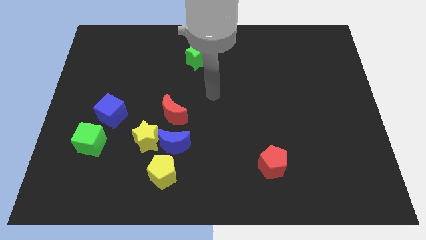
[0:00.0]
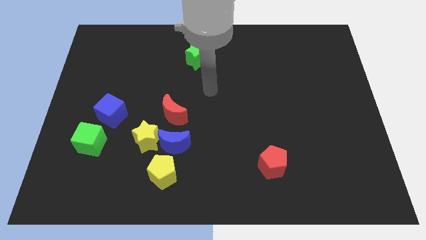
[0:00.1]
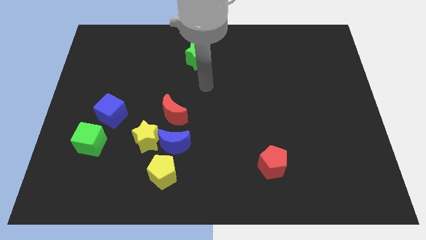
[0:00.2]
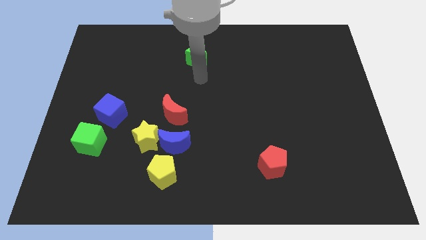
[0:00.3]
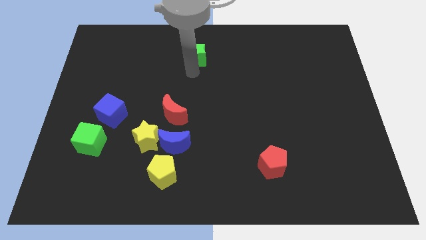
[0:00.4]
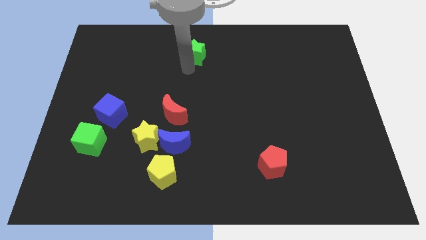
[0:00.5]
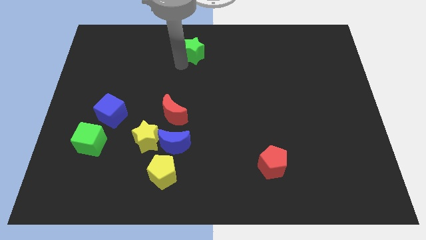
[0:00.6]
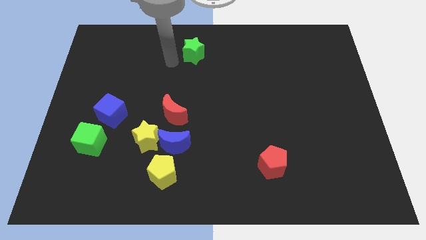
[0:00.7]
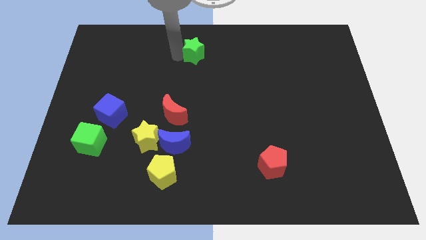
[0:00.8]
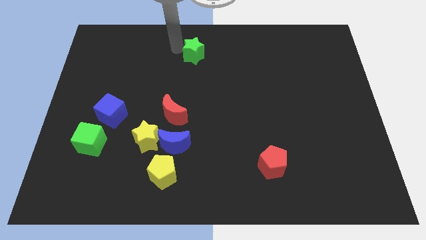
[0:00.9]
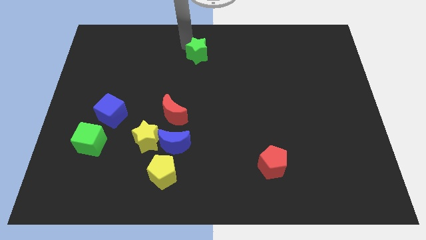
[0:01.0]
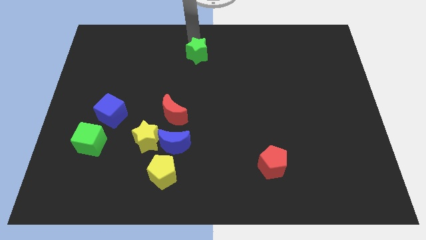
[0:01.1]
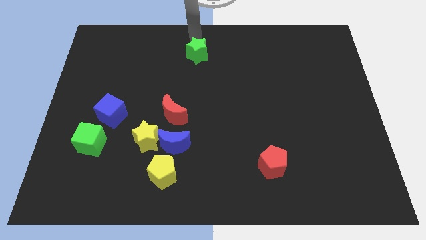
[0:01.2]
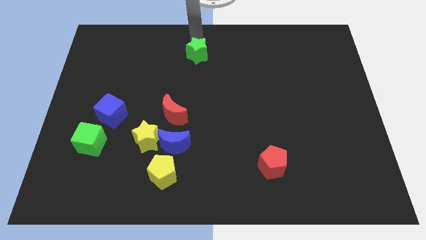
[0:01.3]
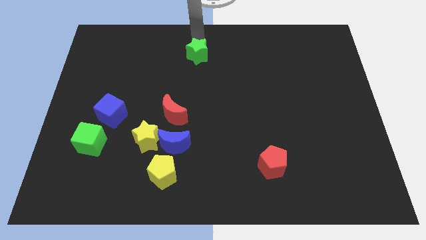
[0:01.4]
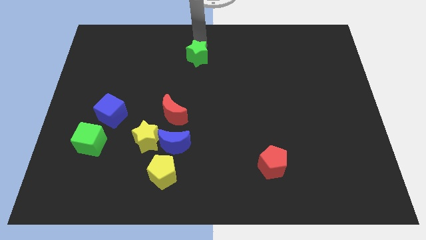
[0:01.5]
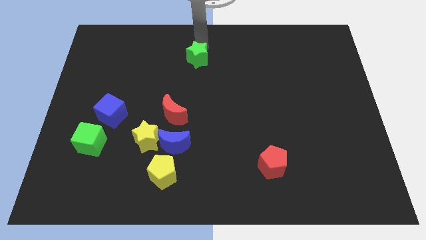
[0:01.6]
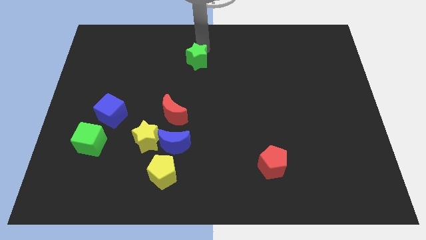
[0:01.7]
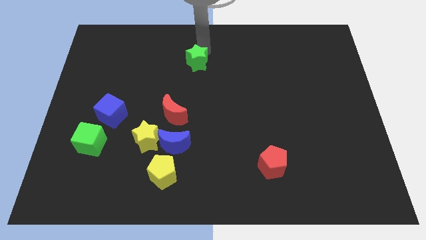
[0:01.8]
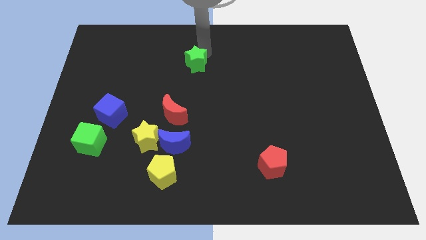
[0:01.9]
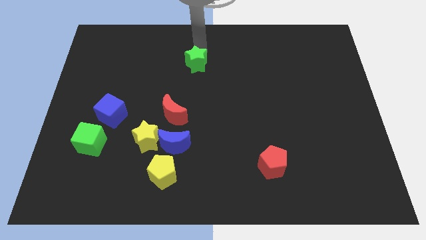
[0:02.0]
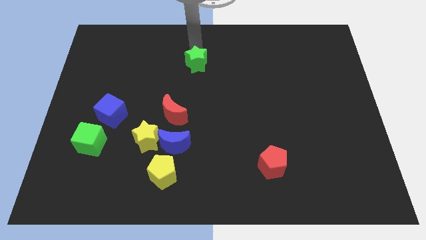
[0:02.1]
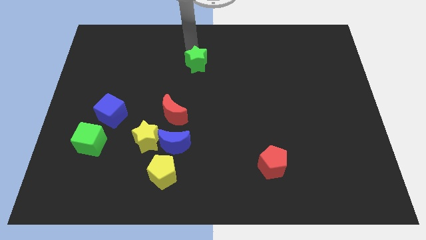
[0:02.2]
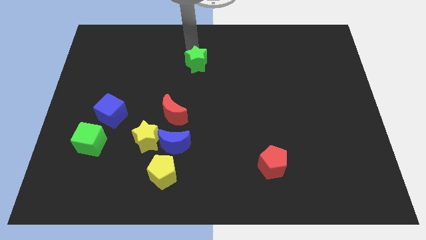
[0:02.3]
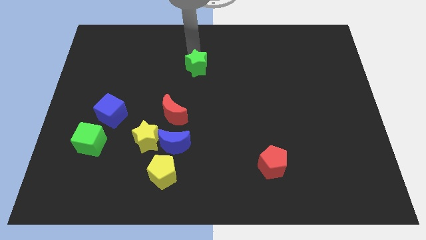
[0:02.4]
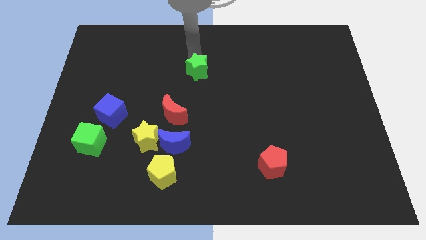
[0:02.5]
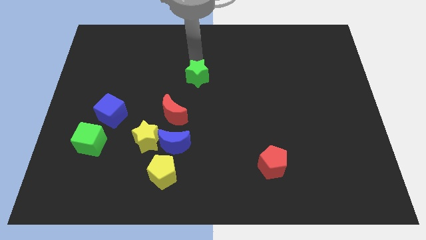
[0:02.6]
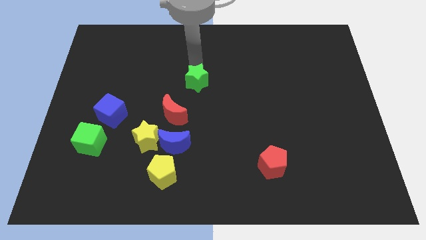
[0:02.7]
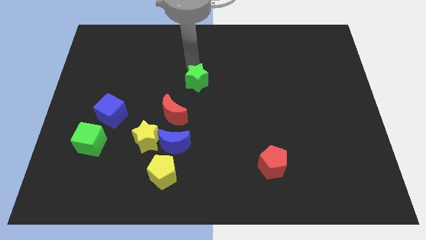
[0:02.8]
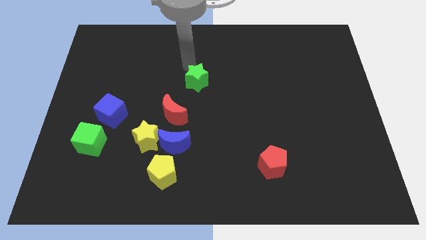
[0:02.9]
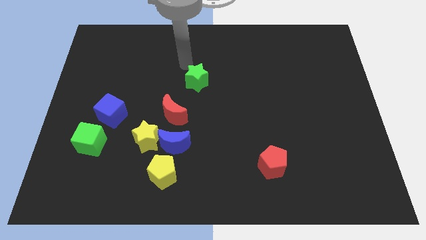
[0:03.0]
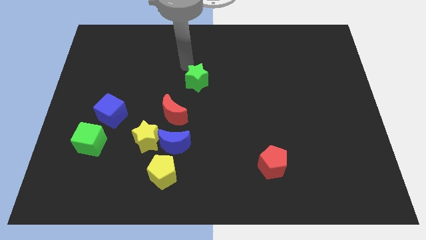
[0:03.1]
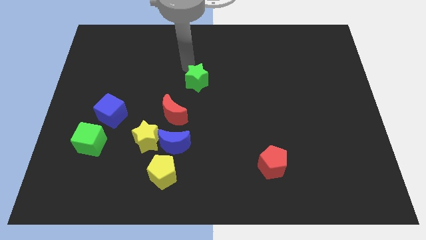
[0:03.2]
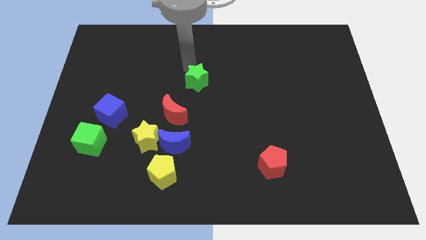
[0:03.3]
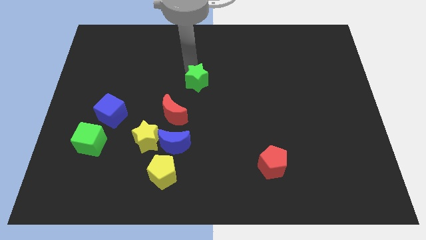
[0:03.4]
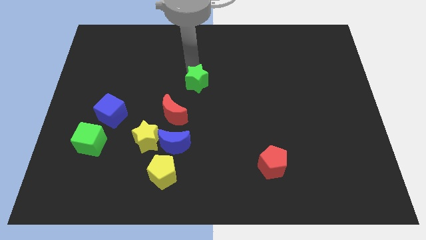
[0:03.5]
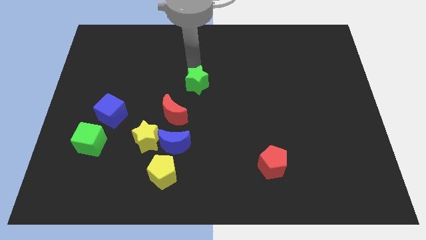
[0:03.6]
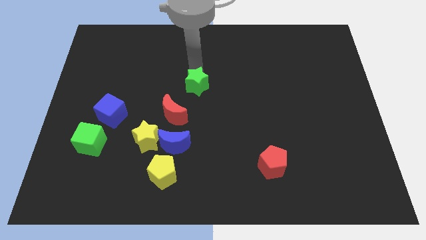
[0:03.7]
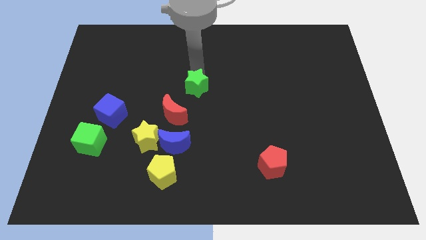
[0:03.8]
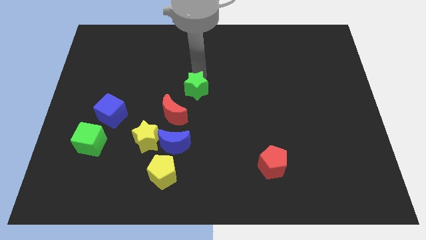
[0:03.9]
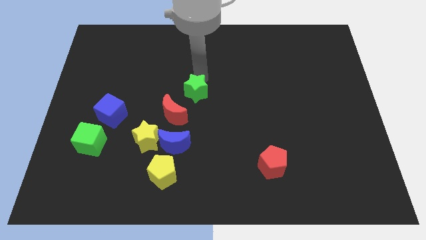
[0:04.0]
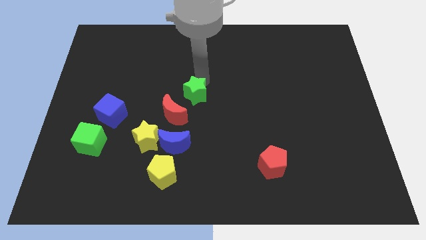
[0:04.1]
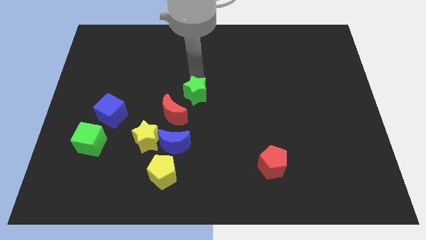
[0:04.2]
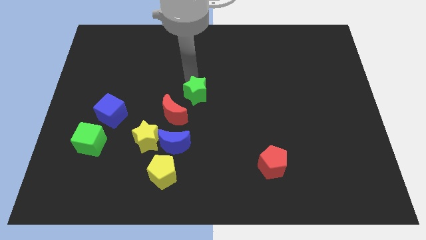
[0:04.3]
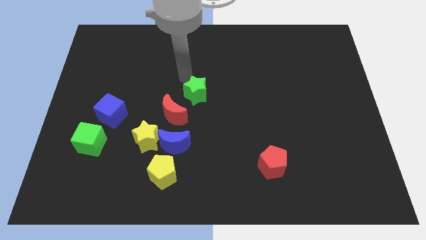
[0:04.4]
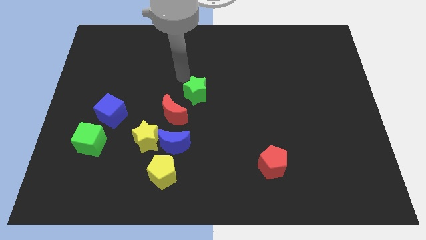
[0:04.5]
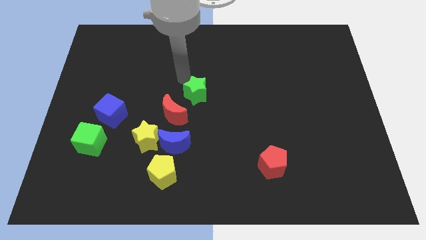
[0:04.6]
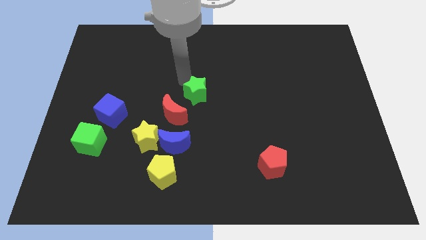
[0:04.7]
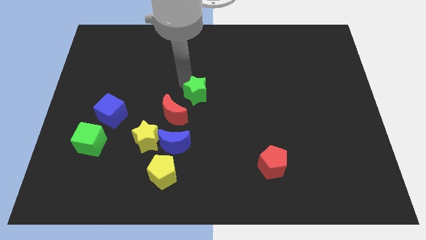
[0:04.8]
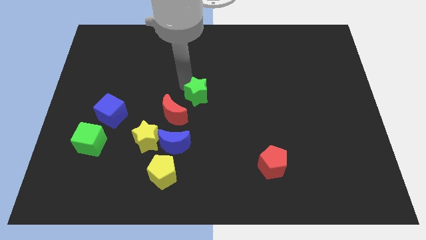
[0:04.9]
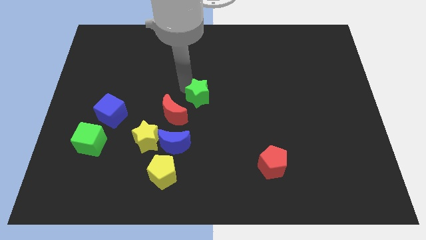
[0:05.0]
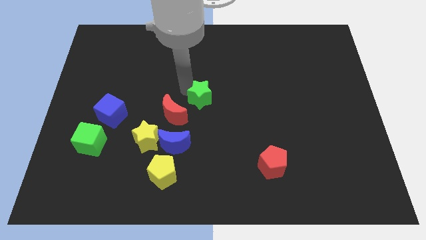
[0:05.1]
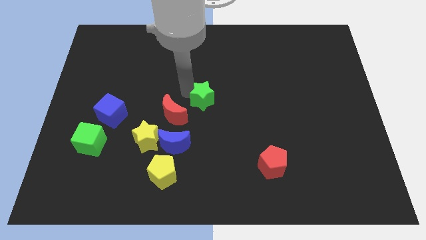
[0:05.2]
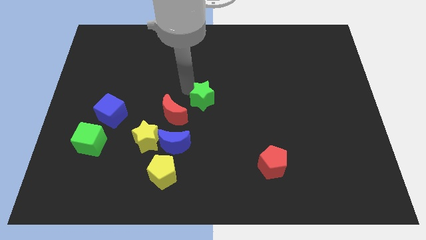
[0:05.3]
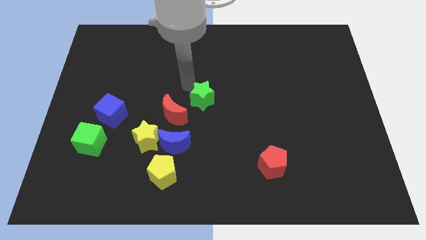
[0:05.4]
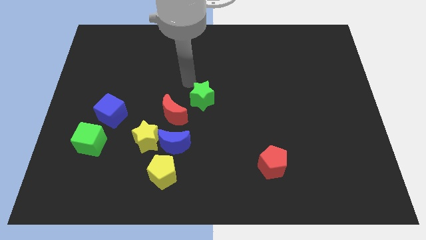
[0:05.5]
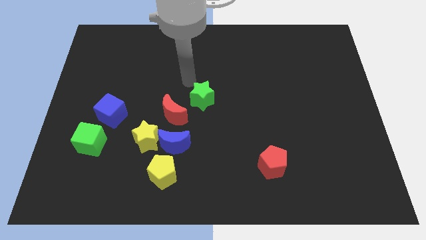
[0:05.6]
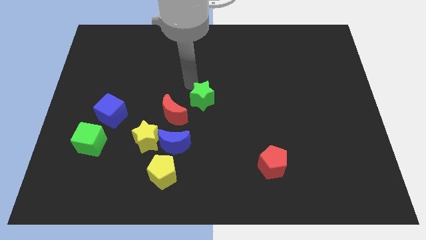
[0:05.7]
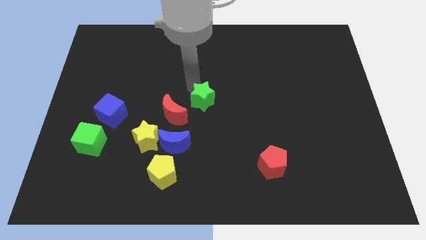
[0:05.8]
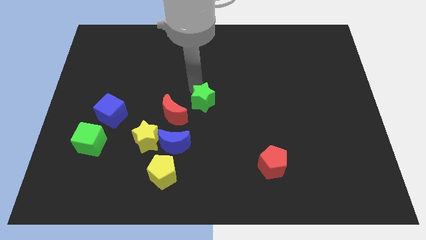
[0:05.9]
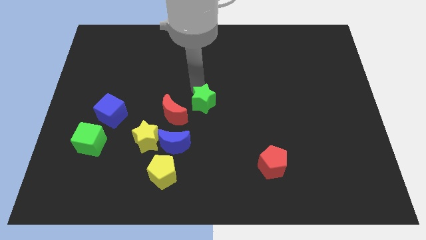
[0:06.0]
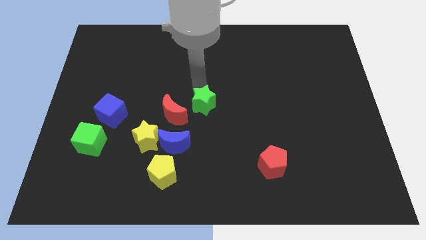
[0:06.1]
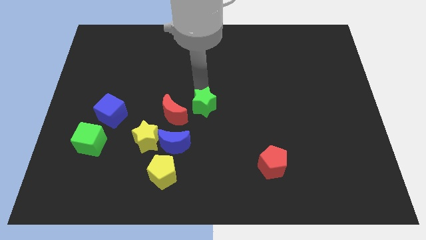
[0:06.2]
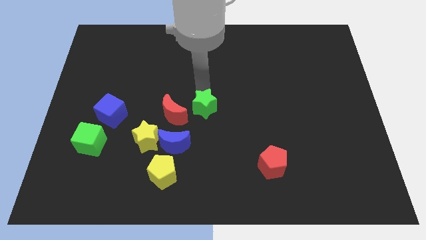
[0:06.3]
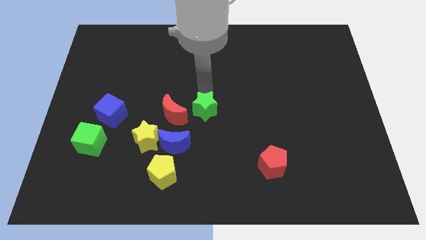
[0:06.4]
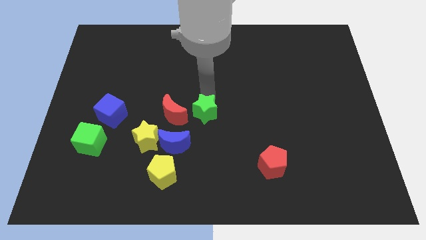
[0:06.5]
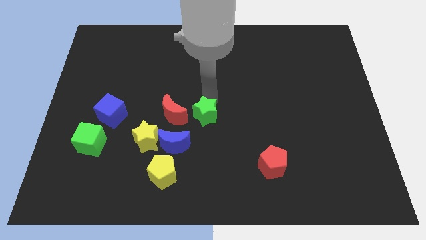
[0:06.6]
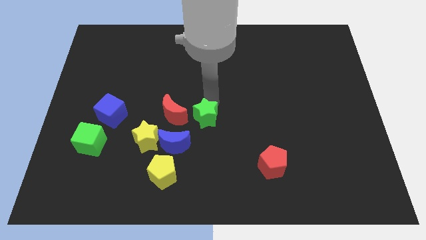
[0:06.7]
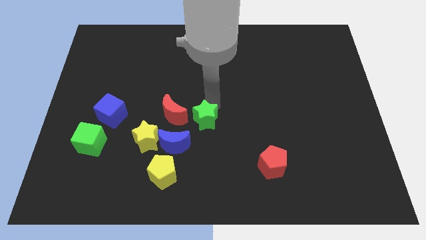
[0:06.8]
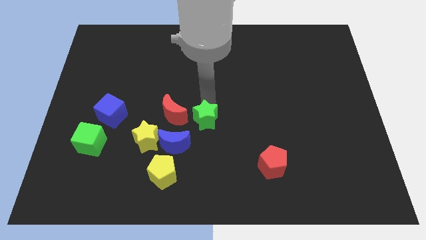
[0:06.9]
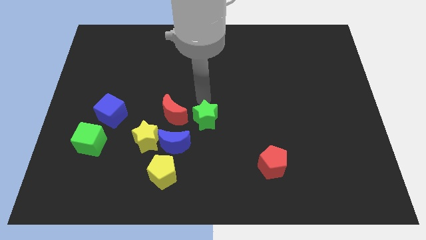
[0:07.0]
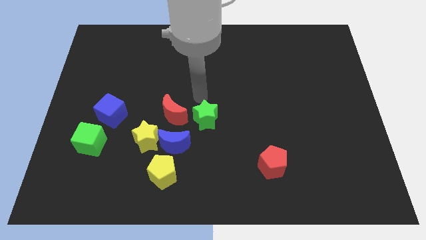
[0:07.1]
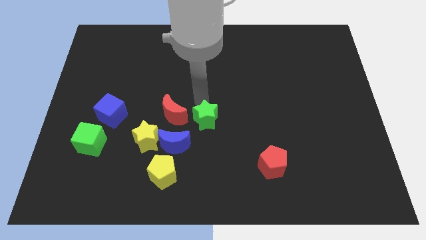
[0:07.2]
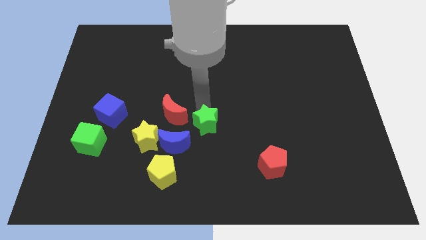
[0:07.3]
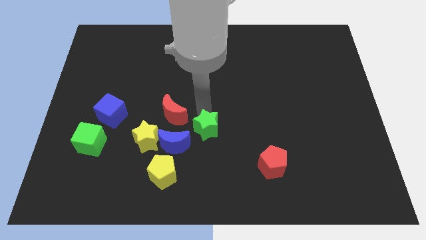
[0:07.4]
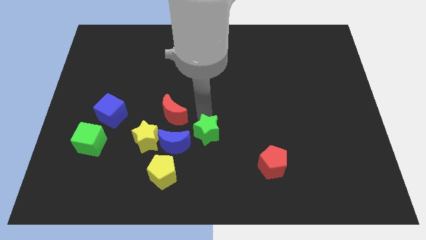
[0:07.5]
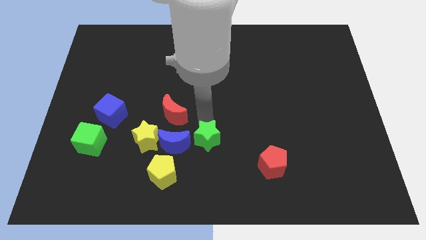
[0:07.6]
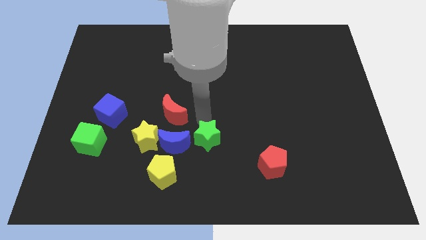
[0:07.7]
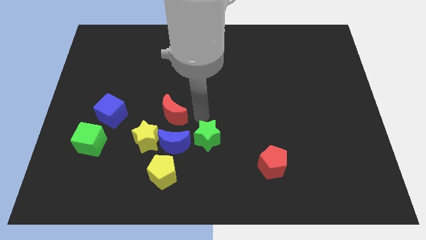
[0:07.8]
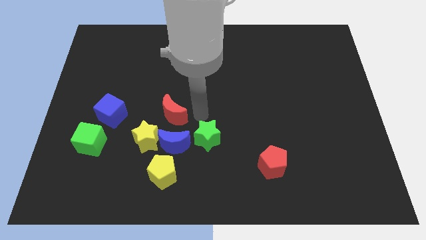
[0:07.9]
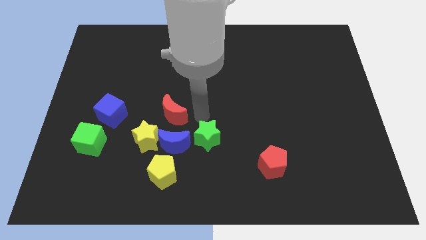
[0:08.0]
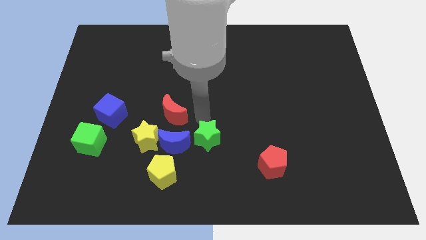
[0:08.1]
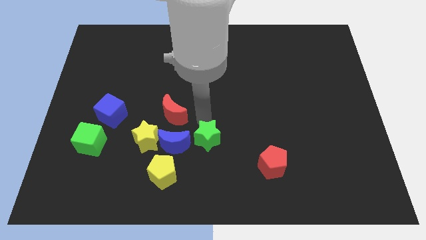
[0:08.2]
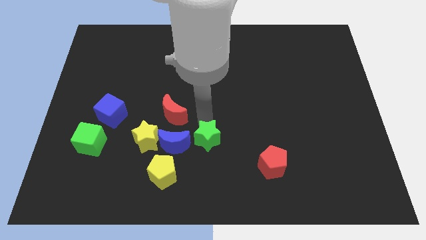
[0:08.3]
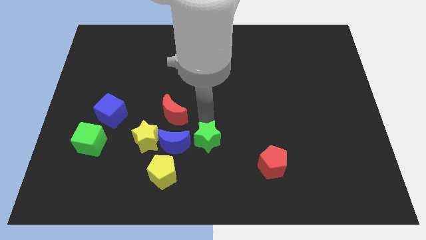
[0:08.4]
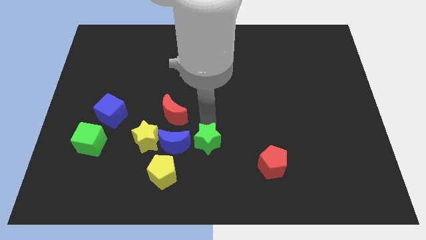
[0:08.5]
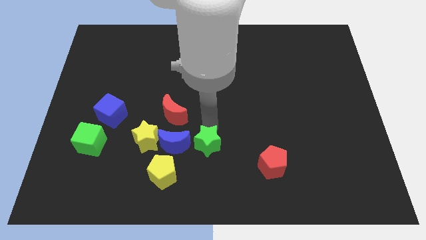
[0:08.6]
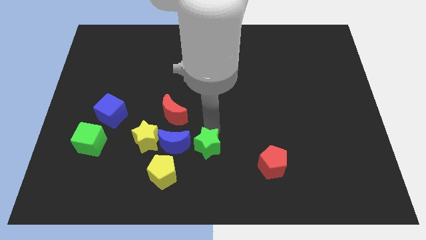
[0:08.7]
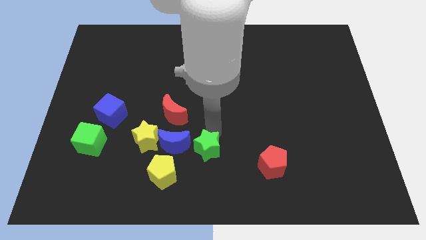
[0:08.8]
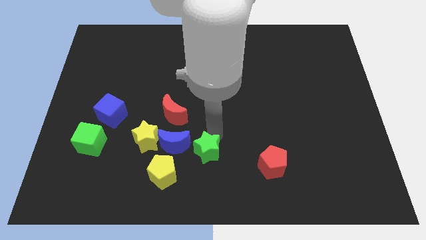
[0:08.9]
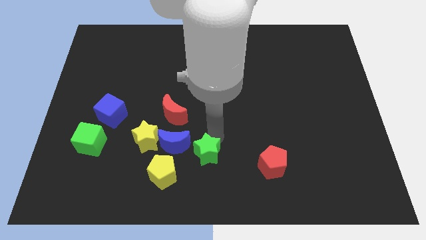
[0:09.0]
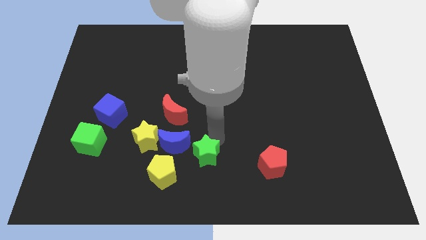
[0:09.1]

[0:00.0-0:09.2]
push the green star to the bottom
